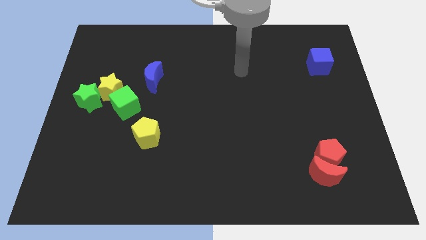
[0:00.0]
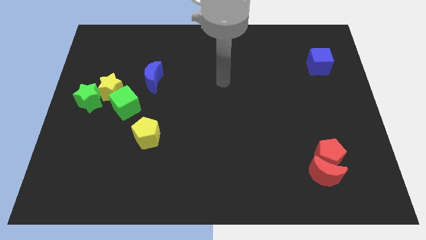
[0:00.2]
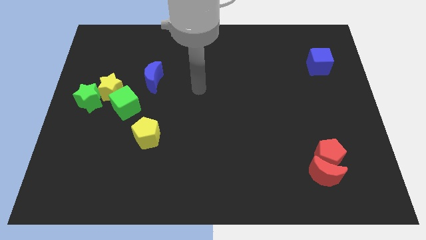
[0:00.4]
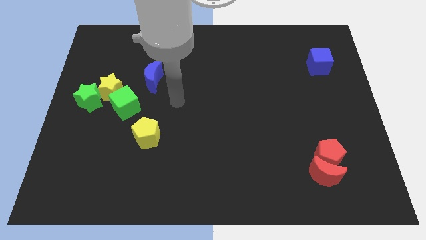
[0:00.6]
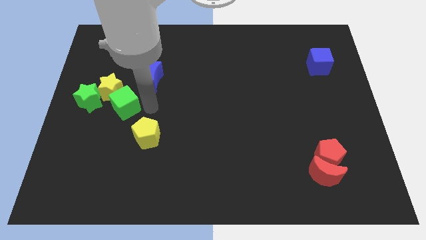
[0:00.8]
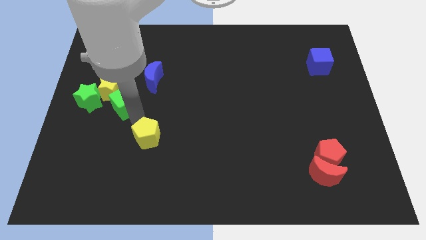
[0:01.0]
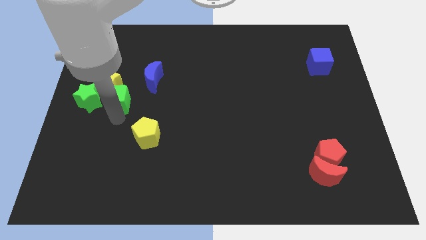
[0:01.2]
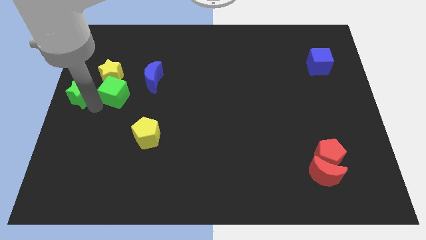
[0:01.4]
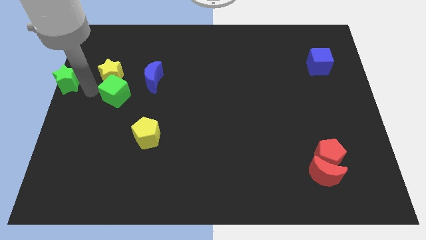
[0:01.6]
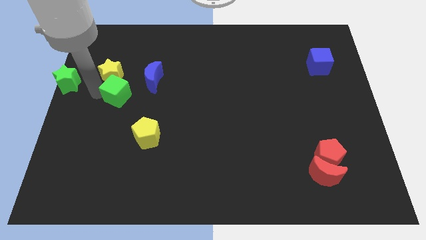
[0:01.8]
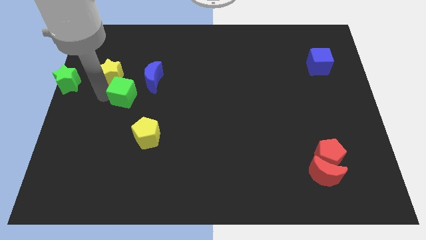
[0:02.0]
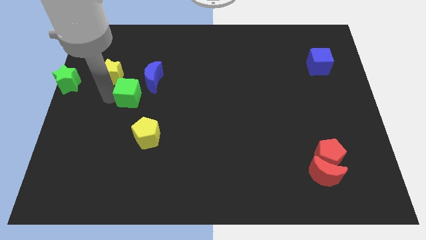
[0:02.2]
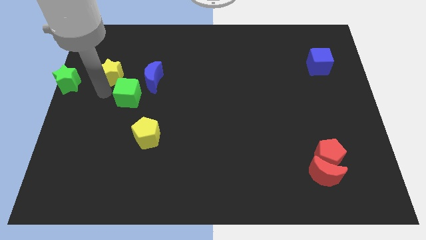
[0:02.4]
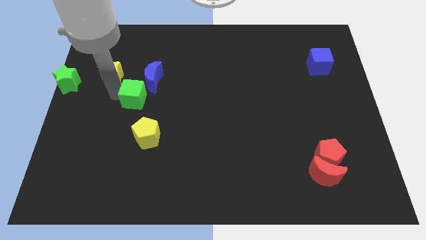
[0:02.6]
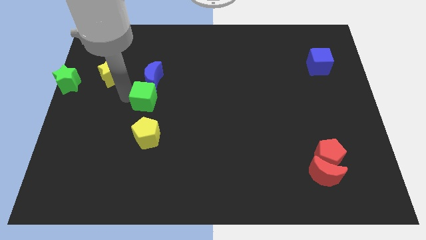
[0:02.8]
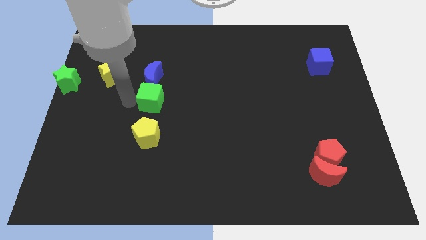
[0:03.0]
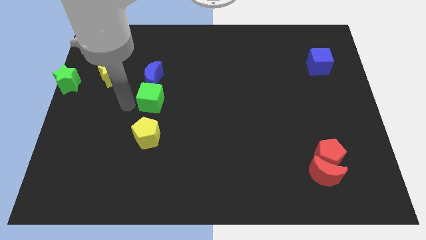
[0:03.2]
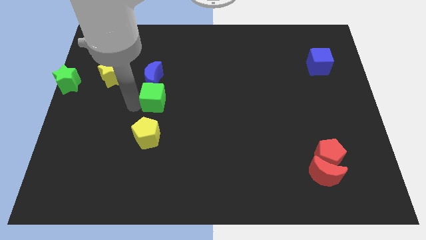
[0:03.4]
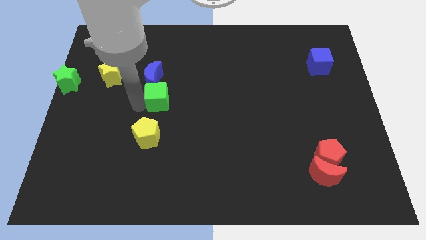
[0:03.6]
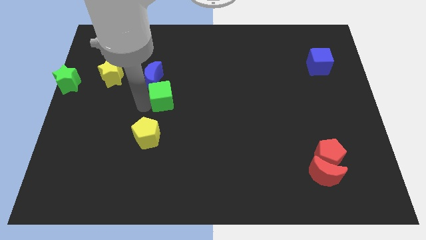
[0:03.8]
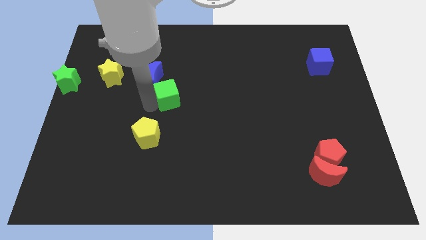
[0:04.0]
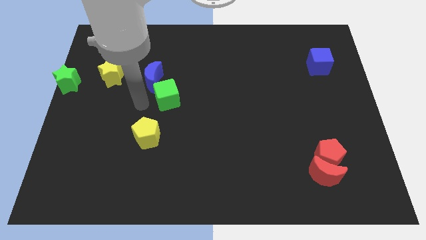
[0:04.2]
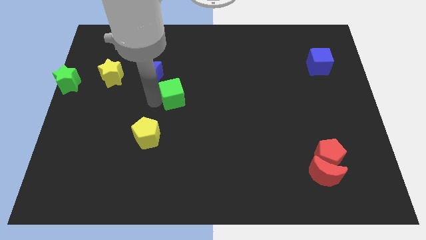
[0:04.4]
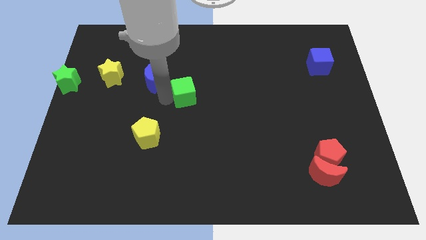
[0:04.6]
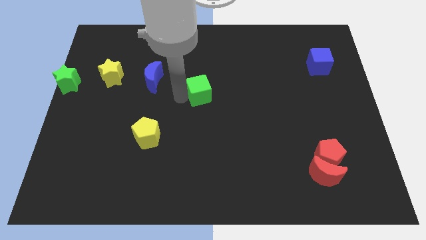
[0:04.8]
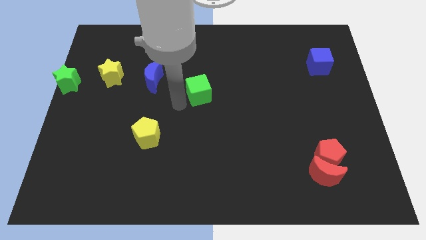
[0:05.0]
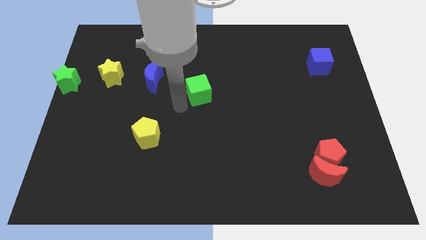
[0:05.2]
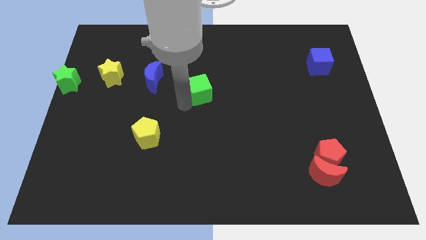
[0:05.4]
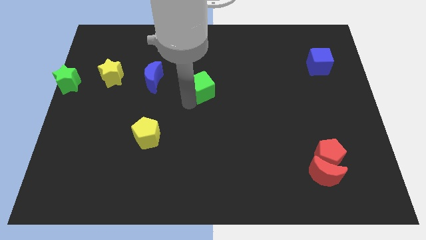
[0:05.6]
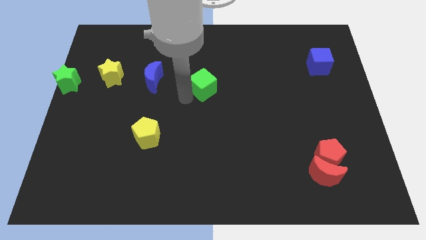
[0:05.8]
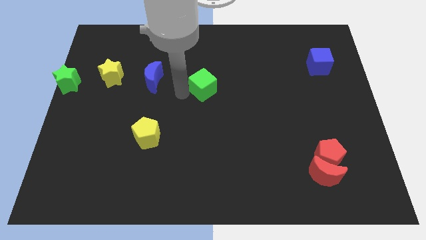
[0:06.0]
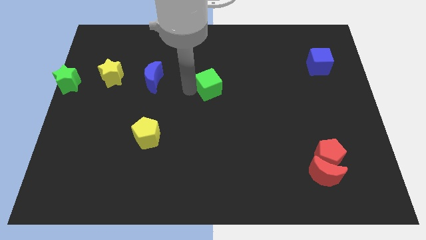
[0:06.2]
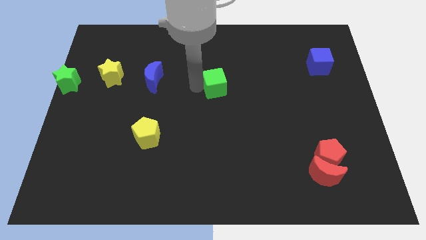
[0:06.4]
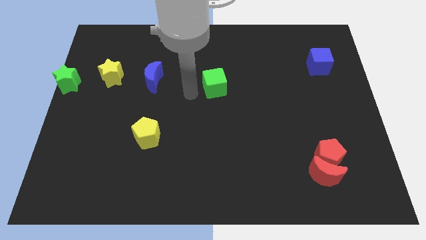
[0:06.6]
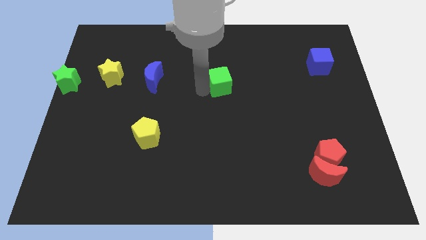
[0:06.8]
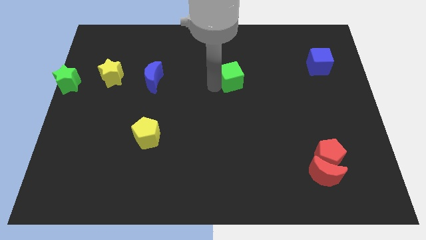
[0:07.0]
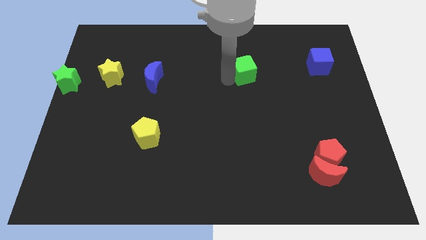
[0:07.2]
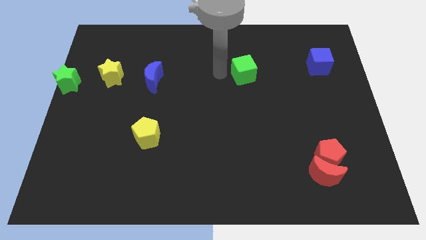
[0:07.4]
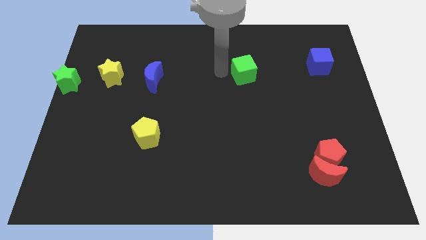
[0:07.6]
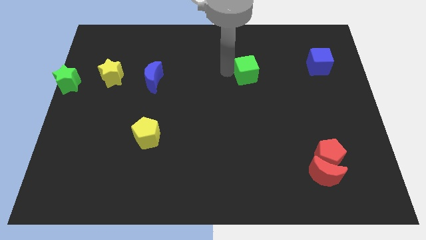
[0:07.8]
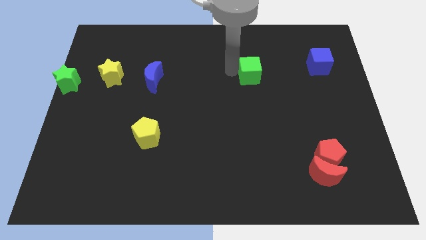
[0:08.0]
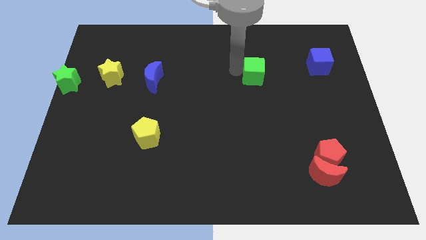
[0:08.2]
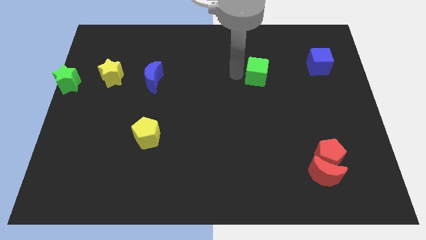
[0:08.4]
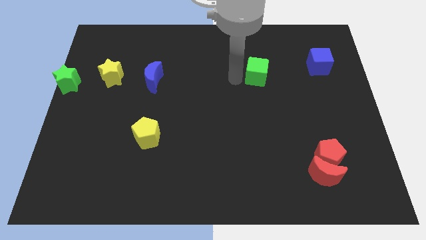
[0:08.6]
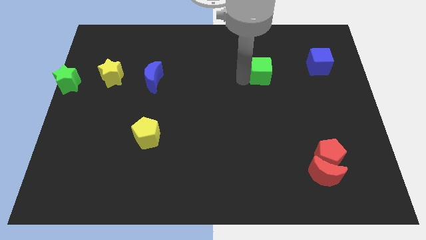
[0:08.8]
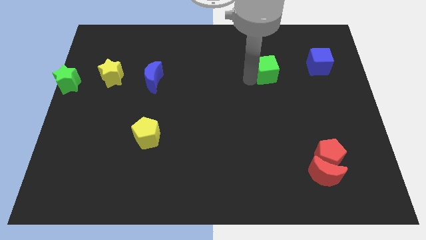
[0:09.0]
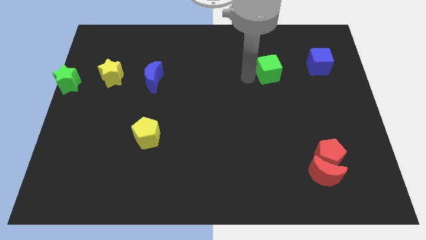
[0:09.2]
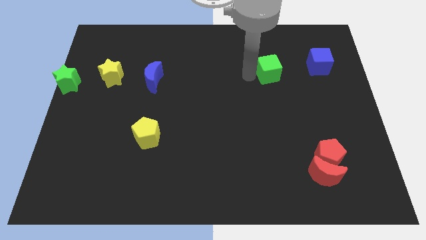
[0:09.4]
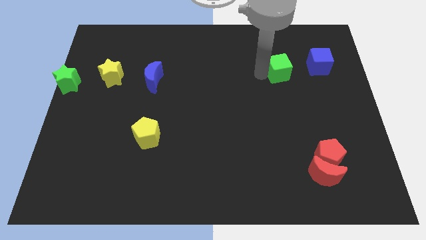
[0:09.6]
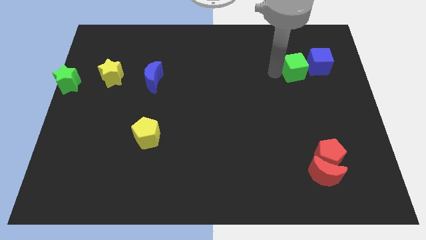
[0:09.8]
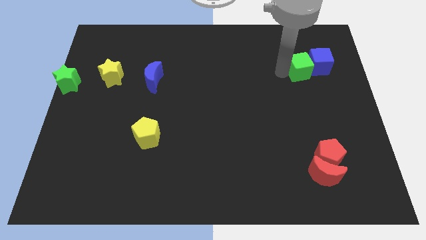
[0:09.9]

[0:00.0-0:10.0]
push the green cube towards the blue cube
